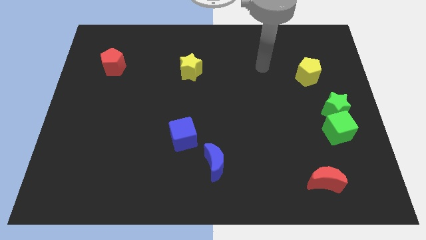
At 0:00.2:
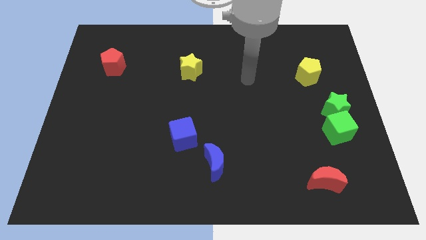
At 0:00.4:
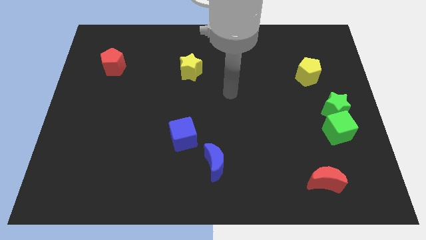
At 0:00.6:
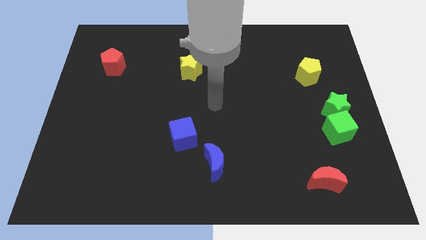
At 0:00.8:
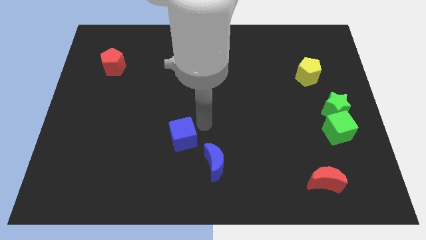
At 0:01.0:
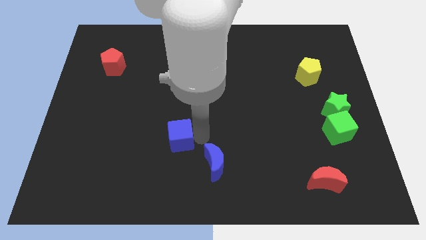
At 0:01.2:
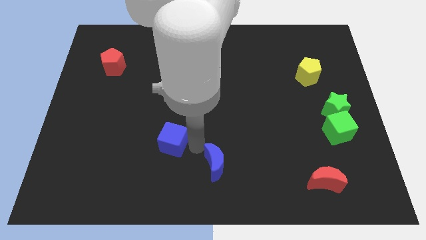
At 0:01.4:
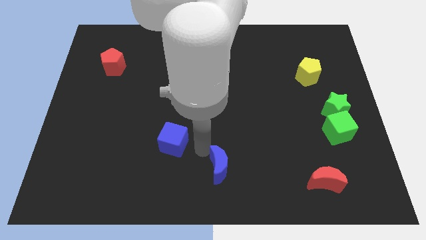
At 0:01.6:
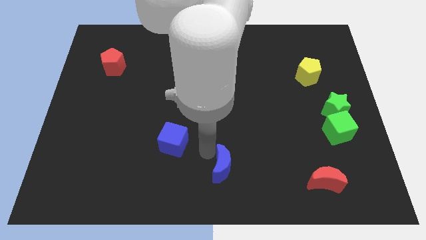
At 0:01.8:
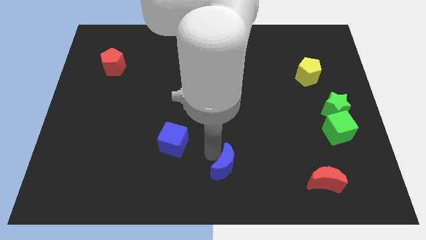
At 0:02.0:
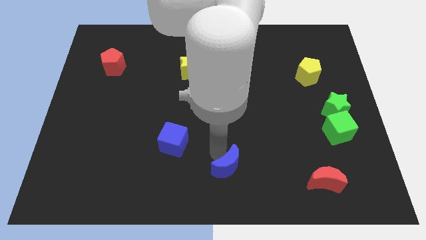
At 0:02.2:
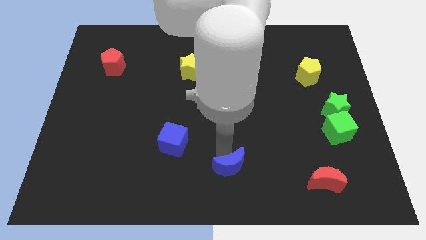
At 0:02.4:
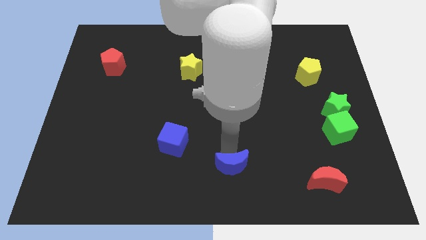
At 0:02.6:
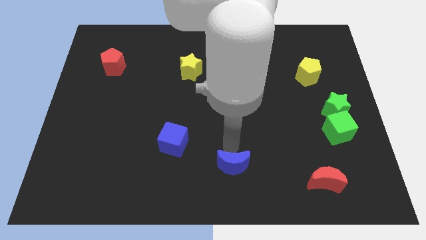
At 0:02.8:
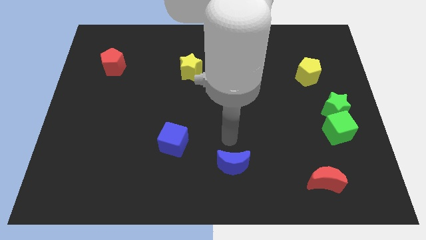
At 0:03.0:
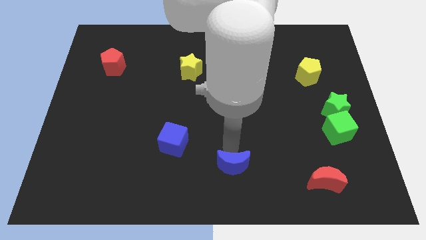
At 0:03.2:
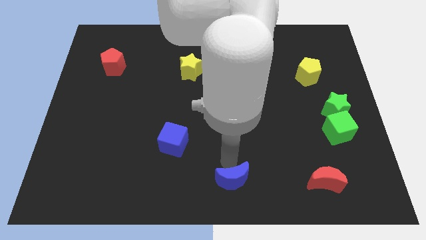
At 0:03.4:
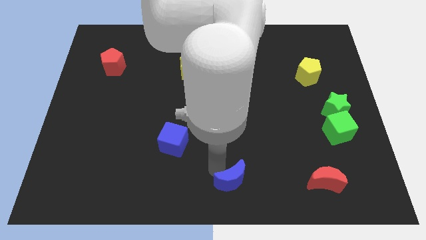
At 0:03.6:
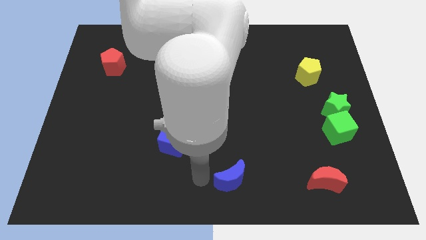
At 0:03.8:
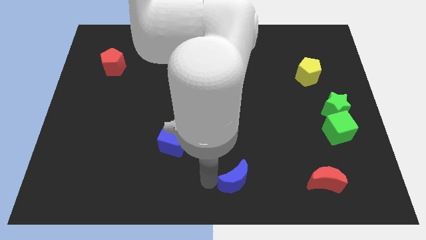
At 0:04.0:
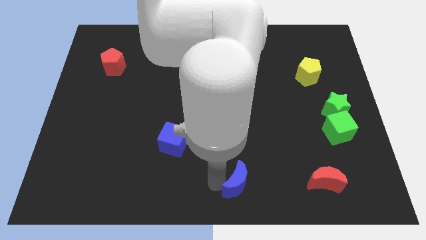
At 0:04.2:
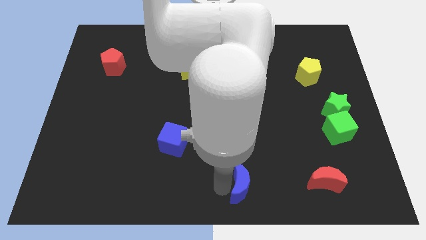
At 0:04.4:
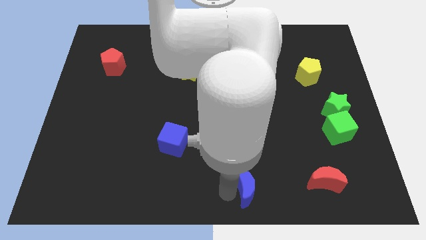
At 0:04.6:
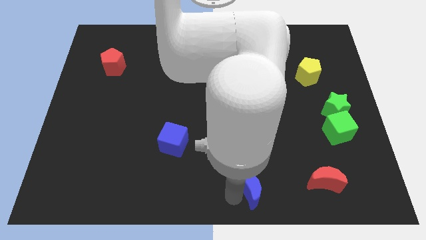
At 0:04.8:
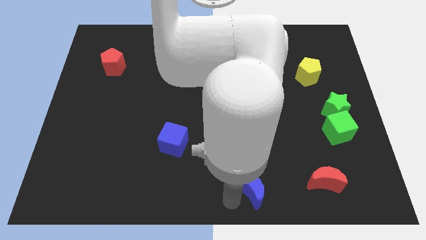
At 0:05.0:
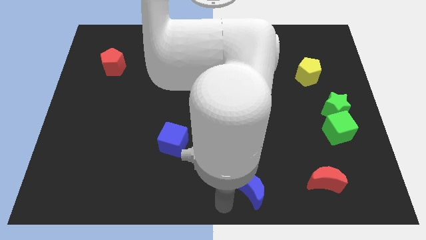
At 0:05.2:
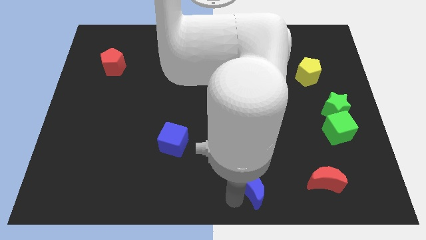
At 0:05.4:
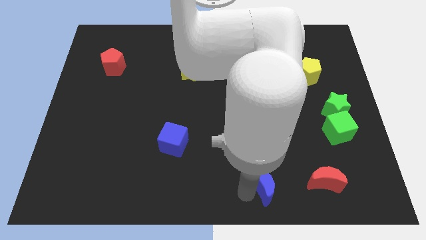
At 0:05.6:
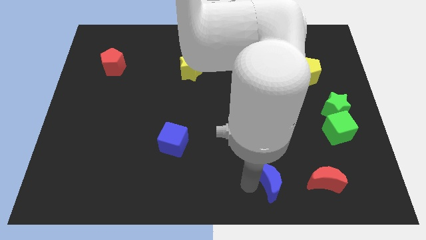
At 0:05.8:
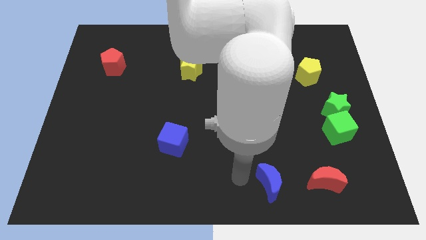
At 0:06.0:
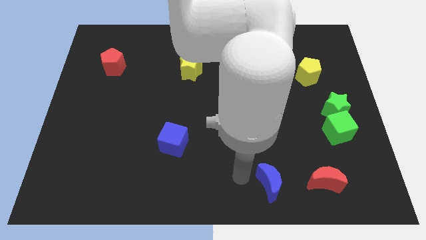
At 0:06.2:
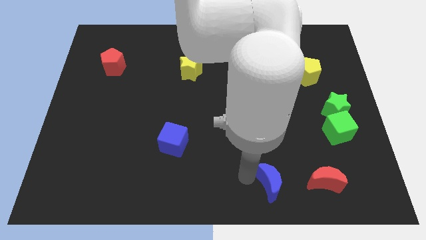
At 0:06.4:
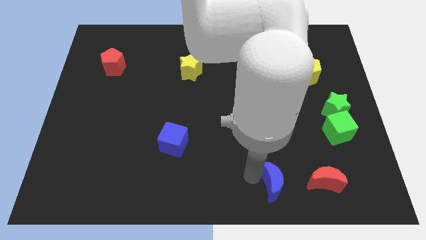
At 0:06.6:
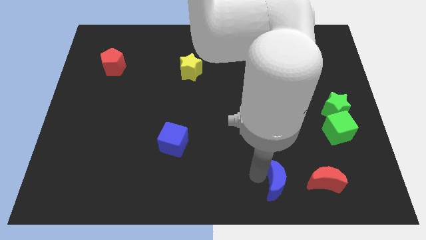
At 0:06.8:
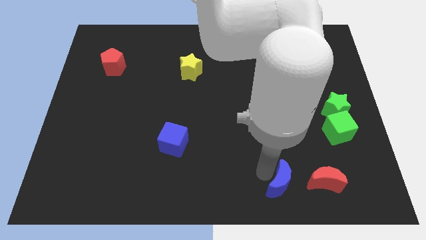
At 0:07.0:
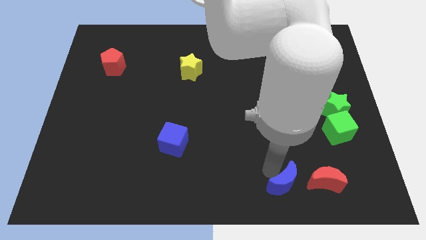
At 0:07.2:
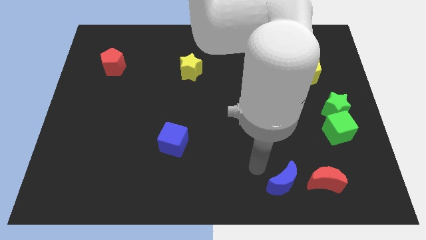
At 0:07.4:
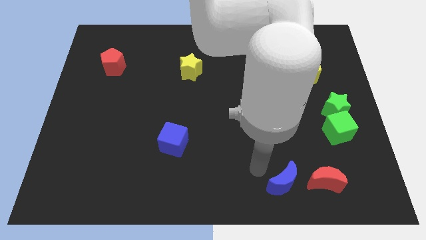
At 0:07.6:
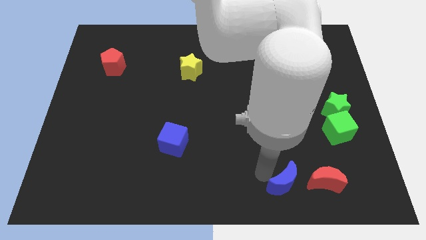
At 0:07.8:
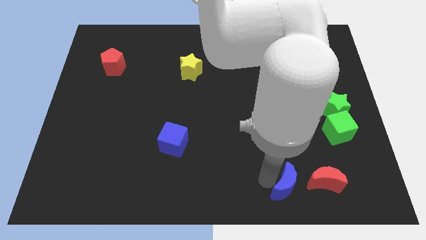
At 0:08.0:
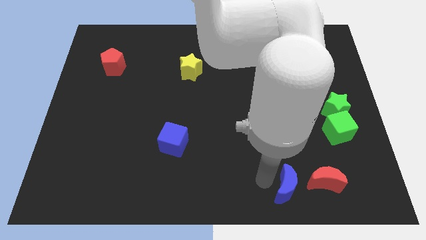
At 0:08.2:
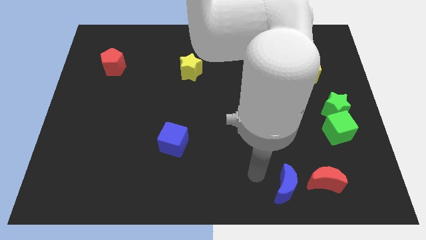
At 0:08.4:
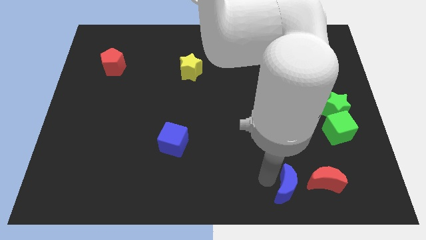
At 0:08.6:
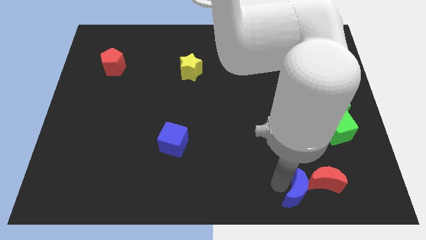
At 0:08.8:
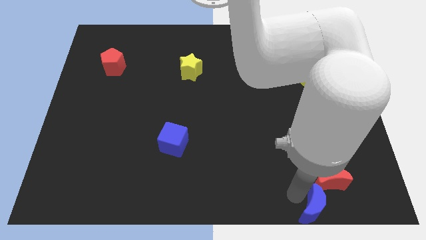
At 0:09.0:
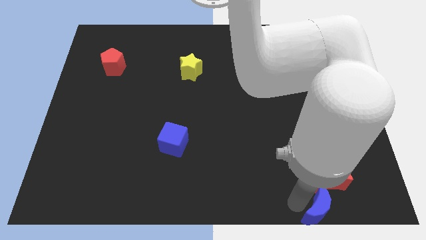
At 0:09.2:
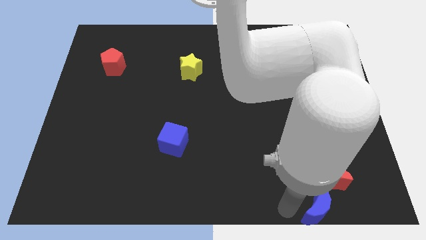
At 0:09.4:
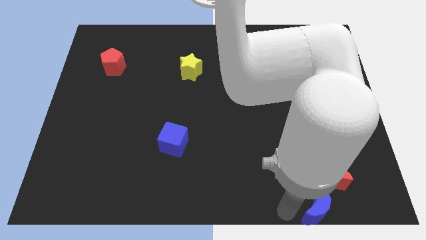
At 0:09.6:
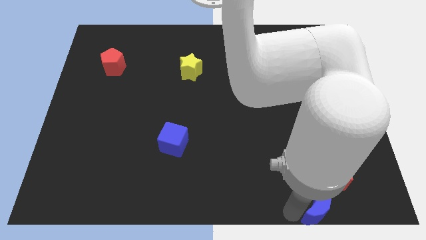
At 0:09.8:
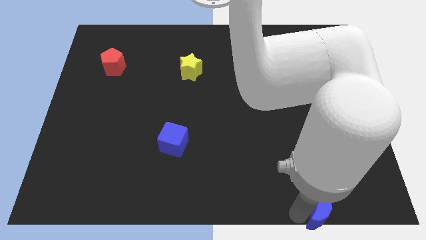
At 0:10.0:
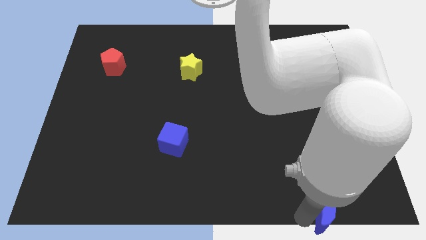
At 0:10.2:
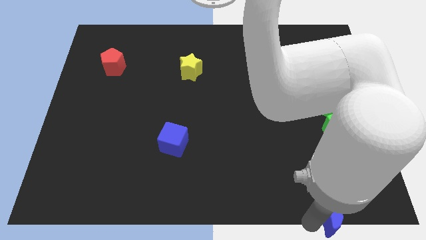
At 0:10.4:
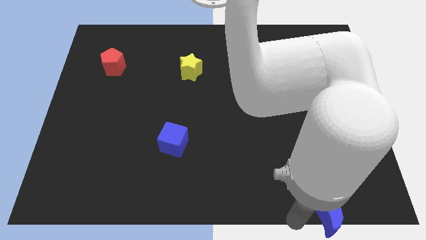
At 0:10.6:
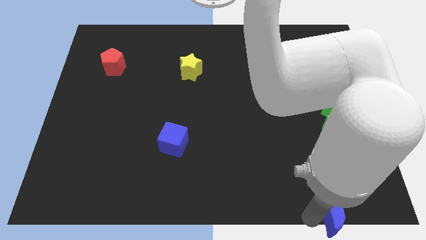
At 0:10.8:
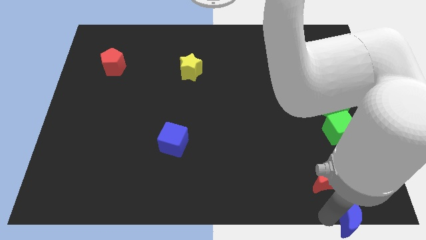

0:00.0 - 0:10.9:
move the blue moon to the bottom right

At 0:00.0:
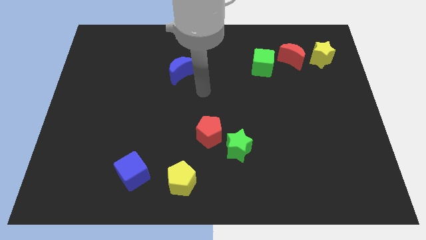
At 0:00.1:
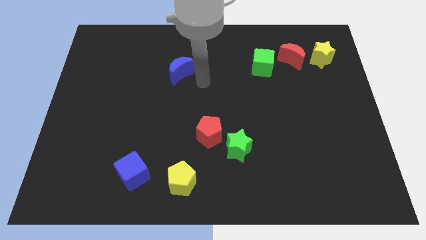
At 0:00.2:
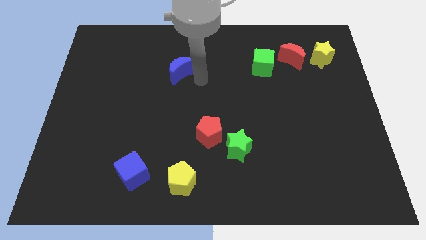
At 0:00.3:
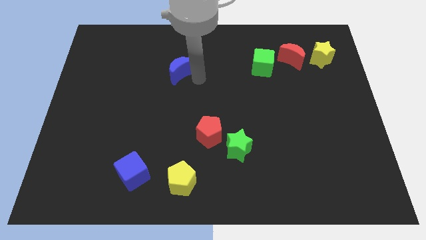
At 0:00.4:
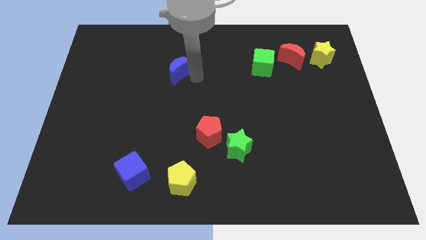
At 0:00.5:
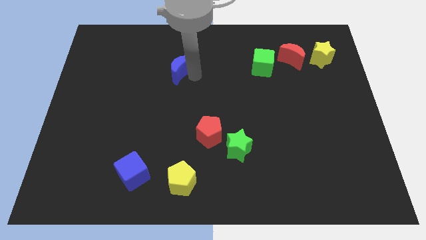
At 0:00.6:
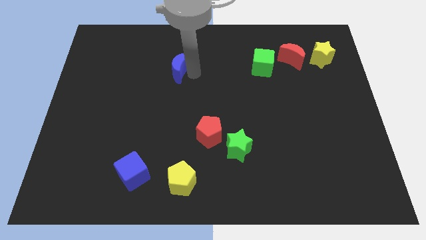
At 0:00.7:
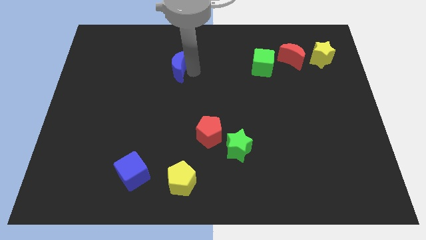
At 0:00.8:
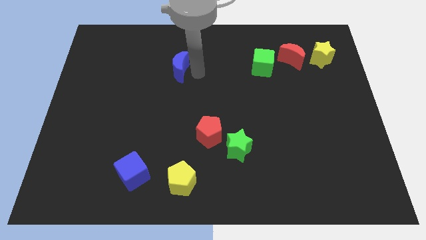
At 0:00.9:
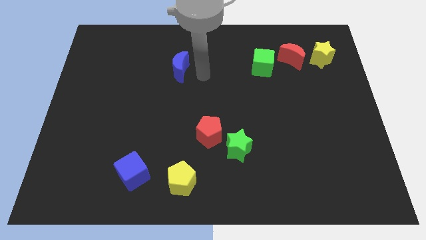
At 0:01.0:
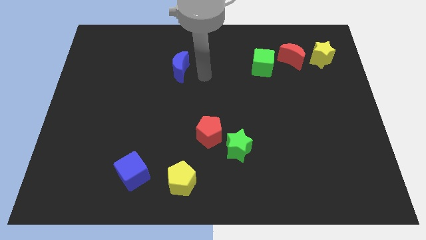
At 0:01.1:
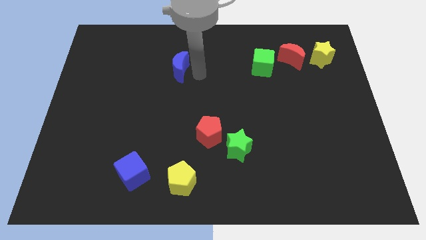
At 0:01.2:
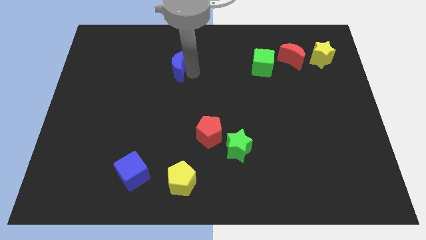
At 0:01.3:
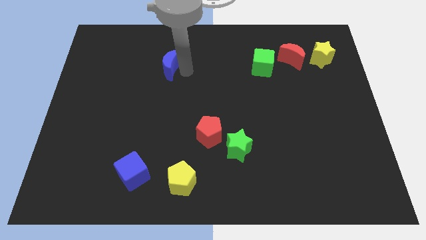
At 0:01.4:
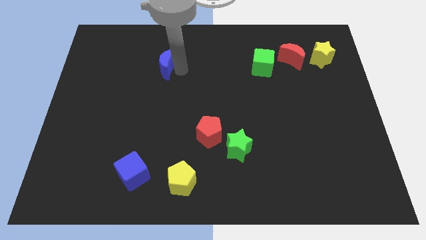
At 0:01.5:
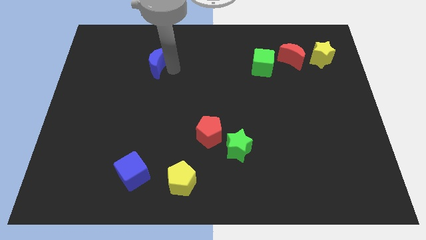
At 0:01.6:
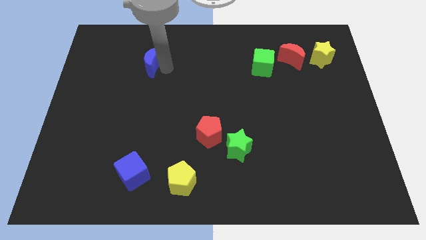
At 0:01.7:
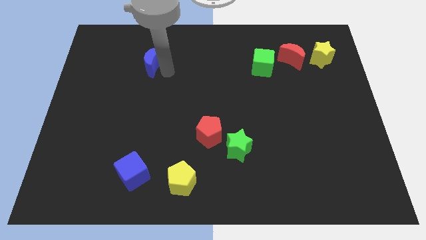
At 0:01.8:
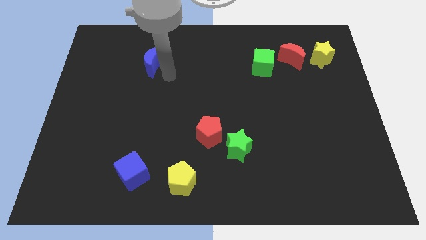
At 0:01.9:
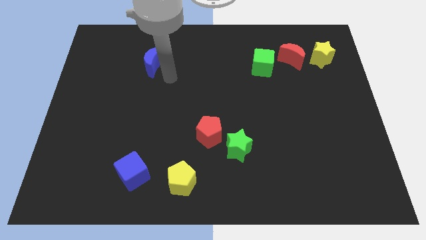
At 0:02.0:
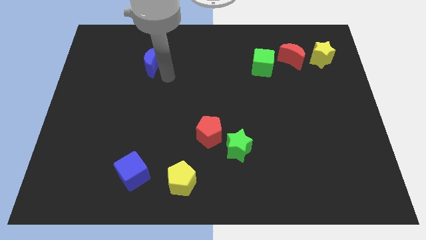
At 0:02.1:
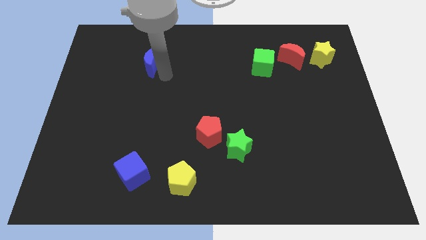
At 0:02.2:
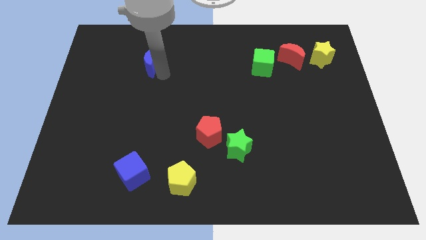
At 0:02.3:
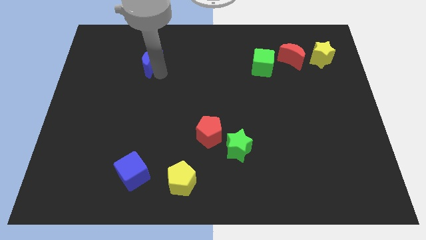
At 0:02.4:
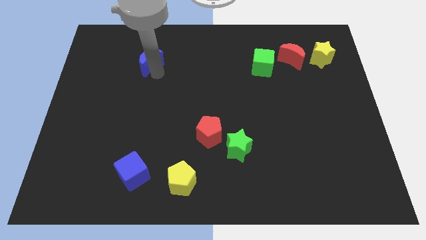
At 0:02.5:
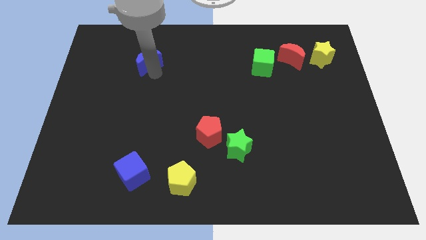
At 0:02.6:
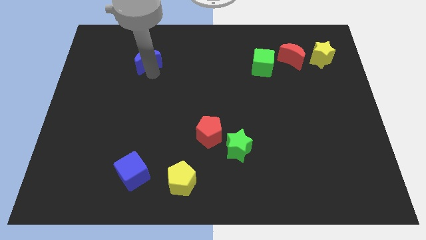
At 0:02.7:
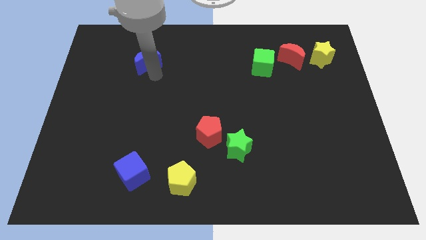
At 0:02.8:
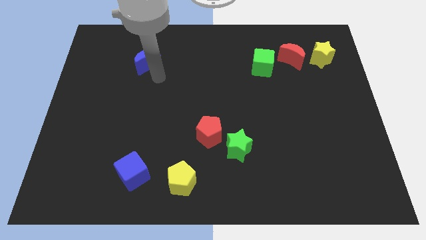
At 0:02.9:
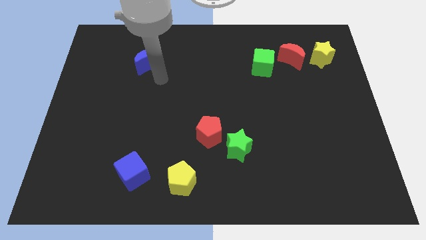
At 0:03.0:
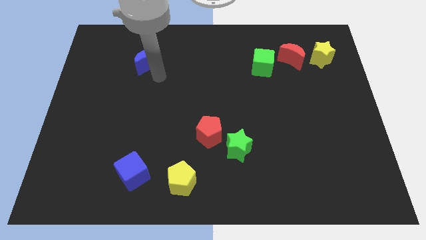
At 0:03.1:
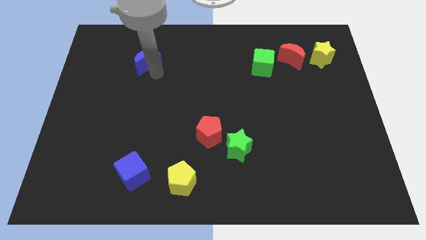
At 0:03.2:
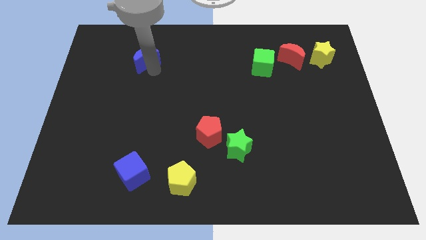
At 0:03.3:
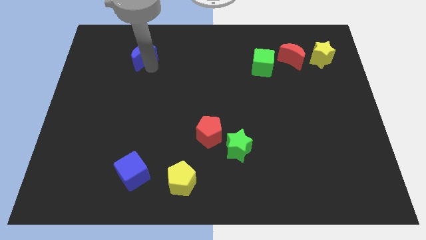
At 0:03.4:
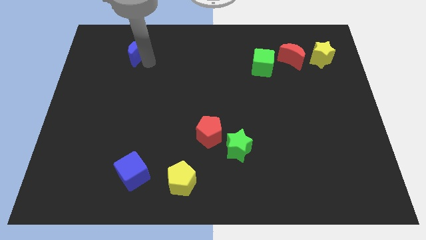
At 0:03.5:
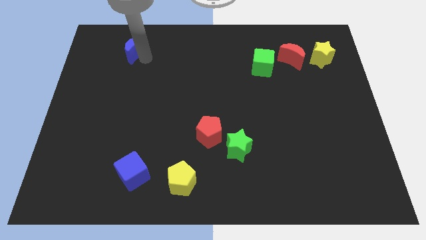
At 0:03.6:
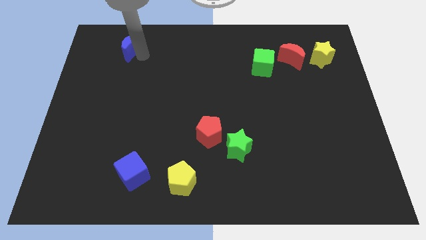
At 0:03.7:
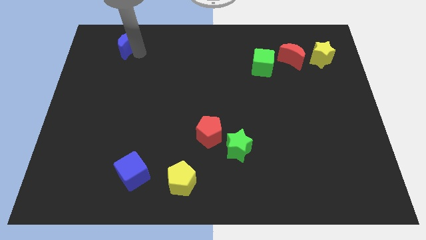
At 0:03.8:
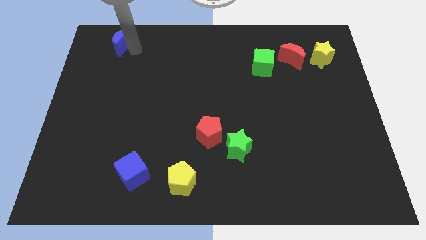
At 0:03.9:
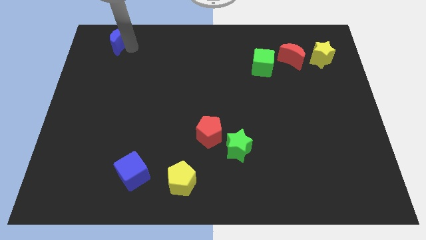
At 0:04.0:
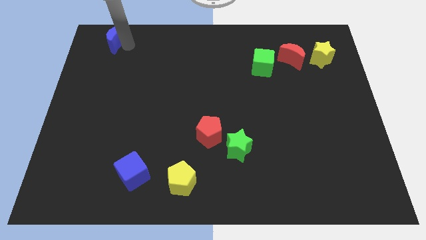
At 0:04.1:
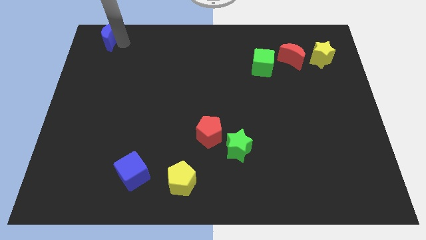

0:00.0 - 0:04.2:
slide the blue moon to the top left corner
